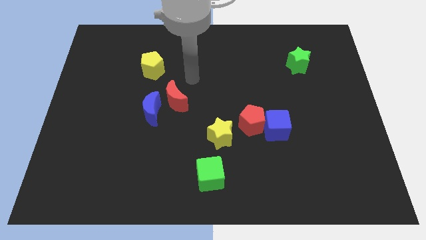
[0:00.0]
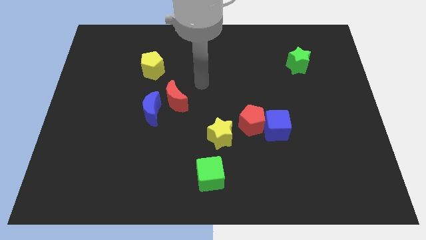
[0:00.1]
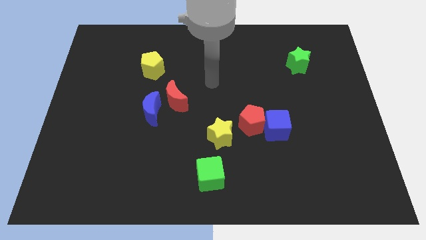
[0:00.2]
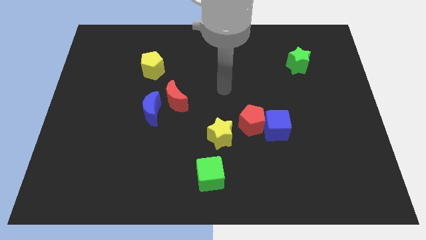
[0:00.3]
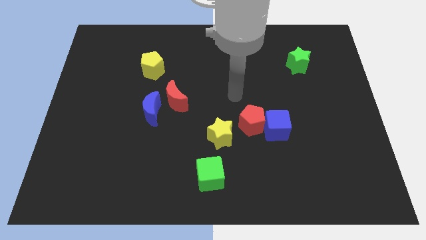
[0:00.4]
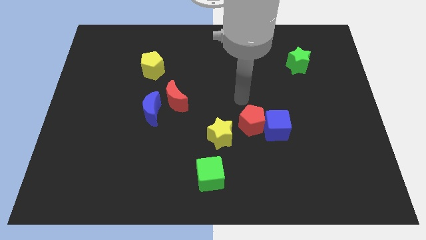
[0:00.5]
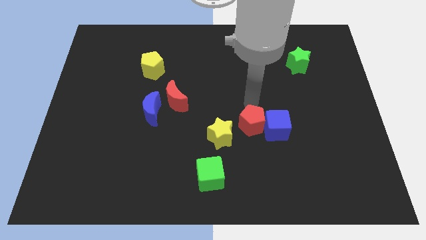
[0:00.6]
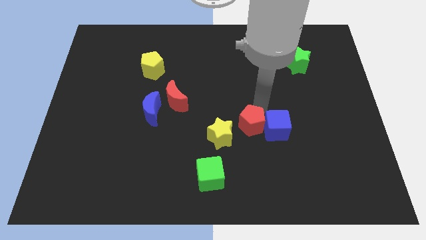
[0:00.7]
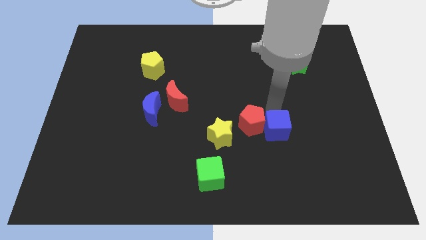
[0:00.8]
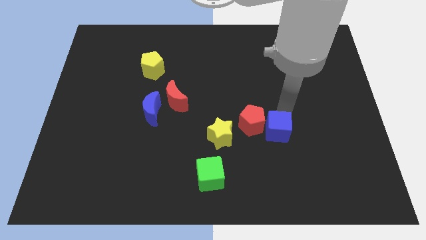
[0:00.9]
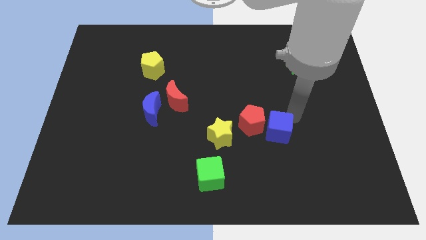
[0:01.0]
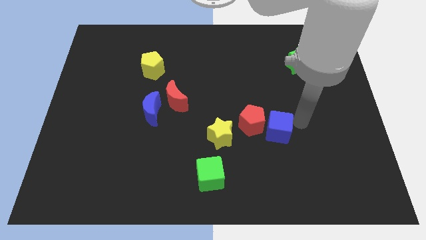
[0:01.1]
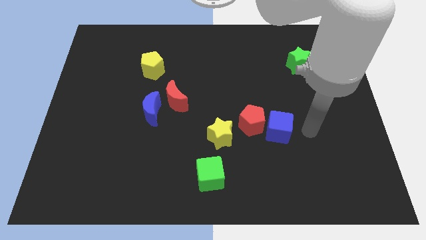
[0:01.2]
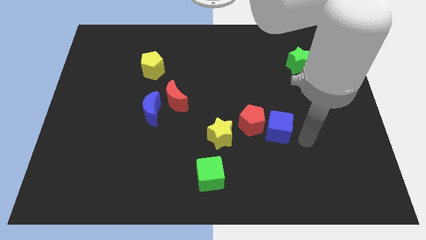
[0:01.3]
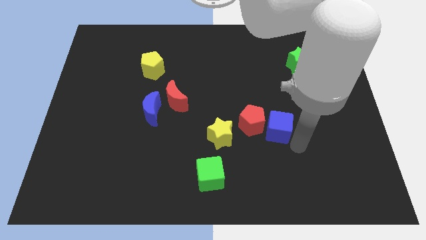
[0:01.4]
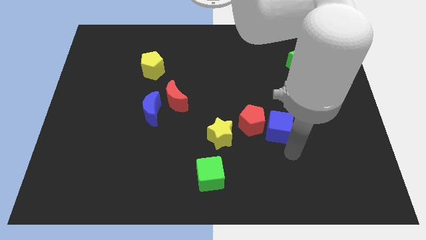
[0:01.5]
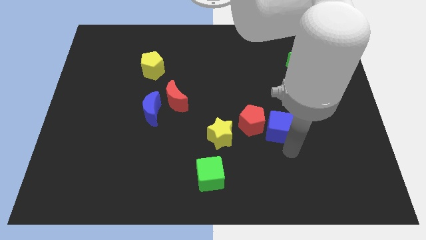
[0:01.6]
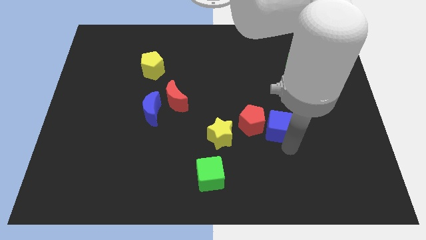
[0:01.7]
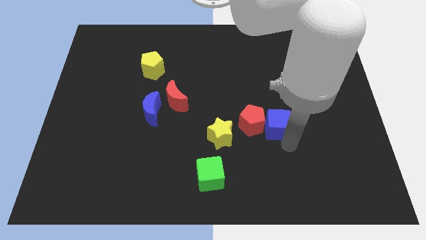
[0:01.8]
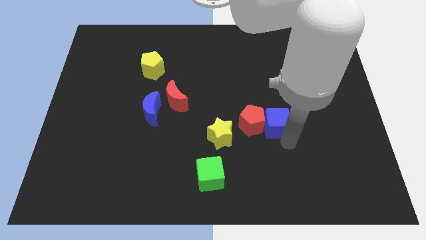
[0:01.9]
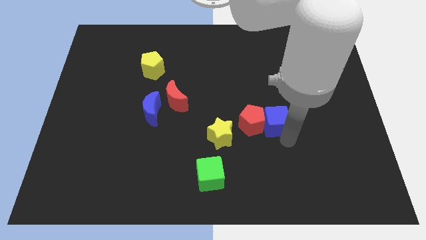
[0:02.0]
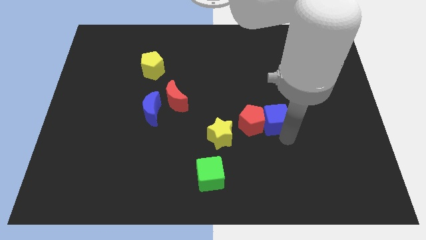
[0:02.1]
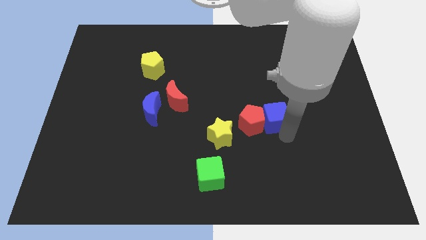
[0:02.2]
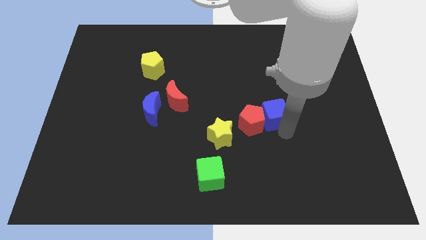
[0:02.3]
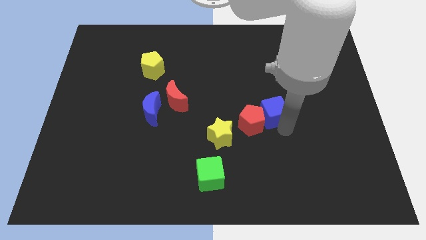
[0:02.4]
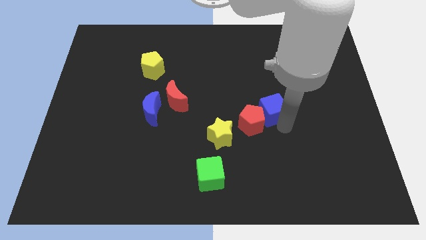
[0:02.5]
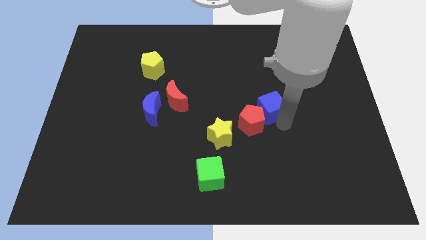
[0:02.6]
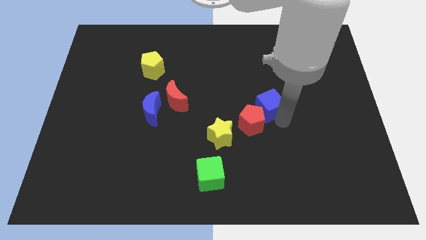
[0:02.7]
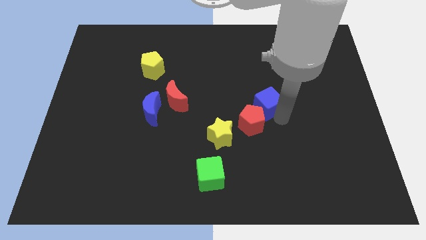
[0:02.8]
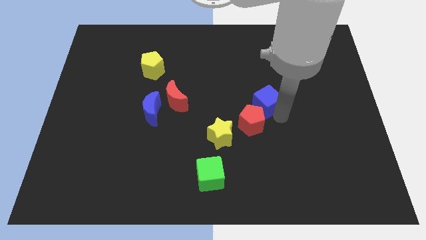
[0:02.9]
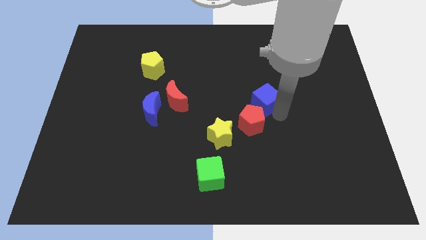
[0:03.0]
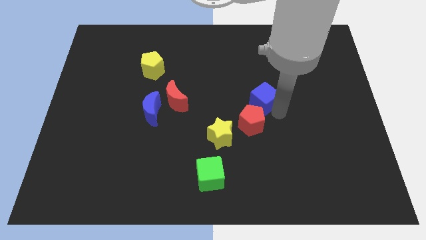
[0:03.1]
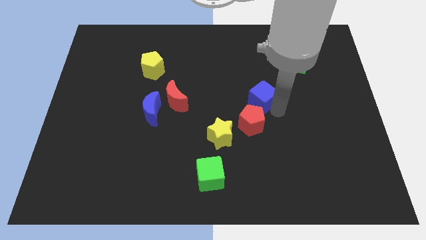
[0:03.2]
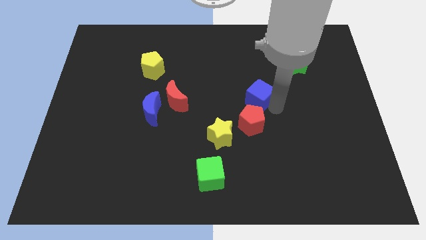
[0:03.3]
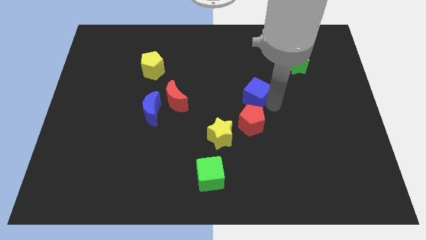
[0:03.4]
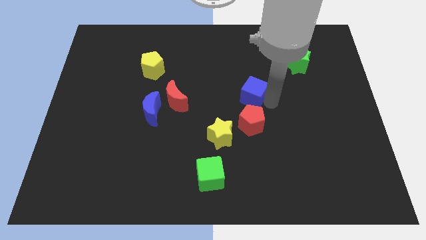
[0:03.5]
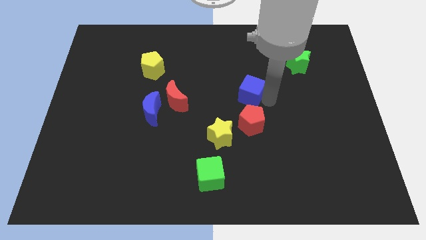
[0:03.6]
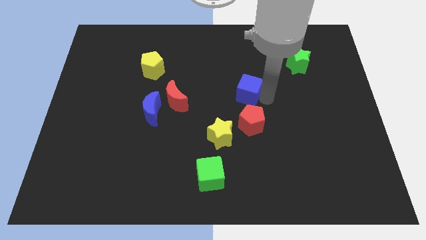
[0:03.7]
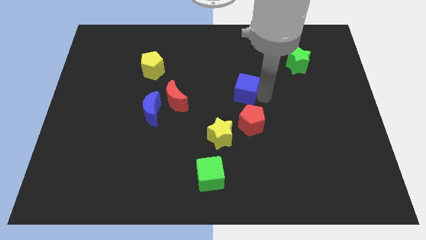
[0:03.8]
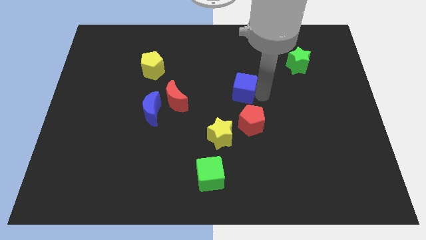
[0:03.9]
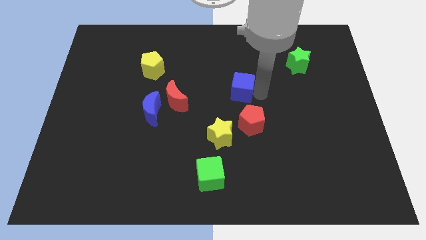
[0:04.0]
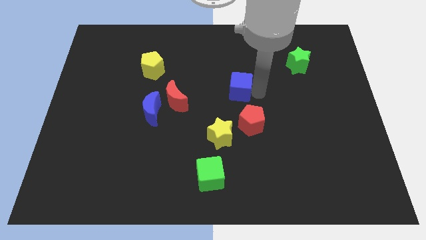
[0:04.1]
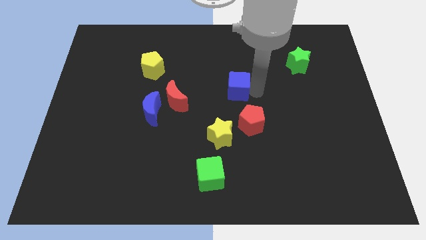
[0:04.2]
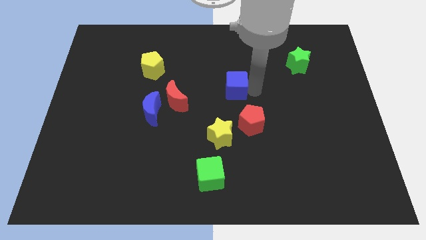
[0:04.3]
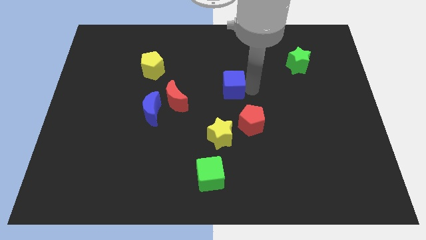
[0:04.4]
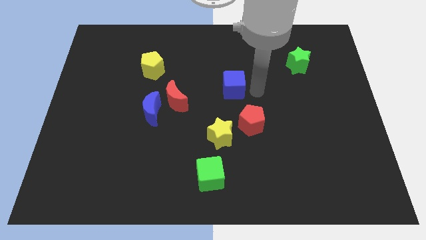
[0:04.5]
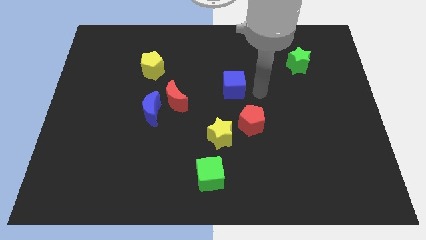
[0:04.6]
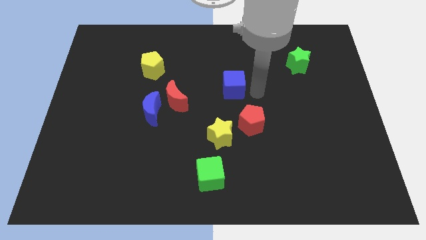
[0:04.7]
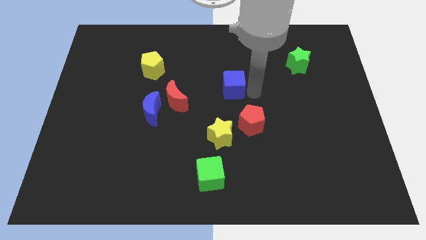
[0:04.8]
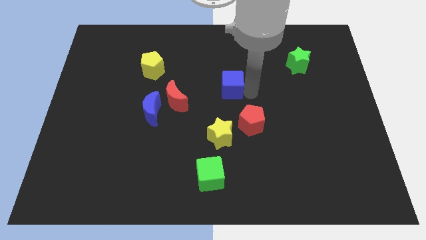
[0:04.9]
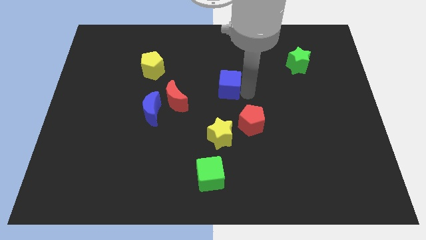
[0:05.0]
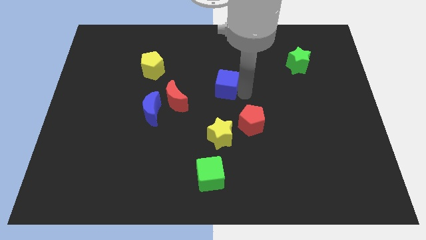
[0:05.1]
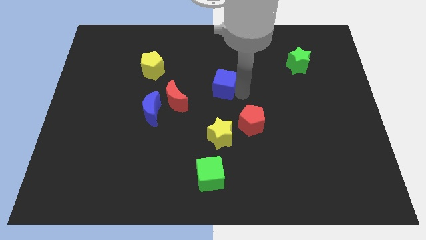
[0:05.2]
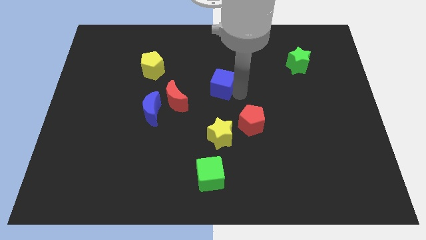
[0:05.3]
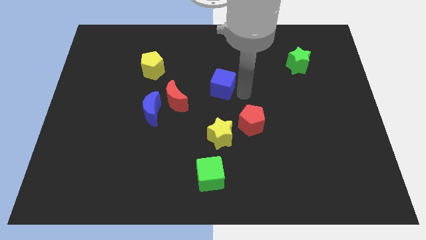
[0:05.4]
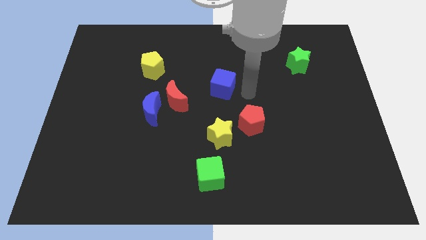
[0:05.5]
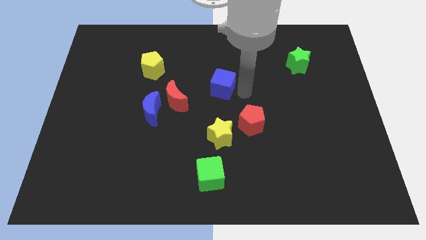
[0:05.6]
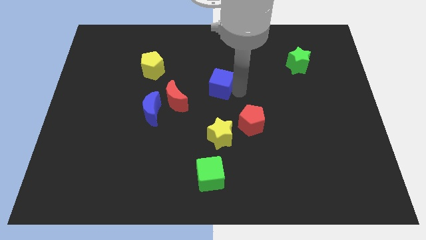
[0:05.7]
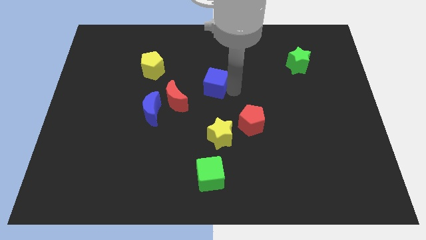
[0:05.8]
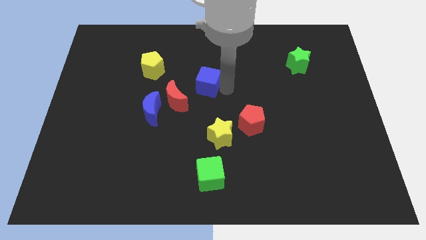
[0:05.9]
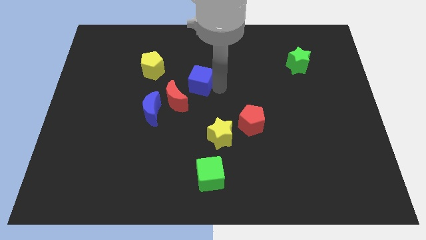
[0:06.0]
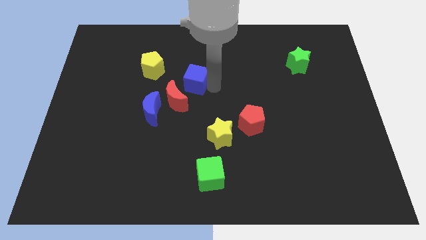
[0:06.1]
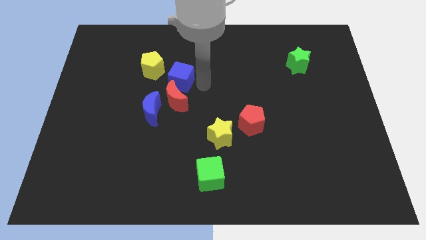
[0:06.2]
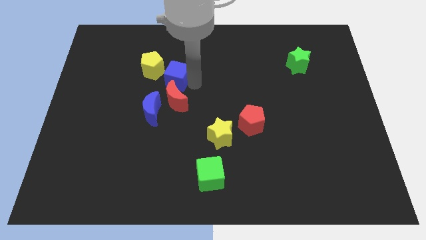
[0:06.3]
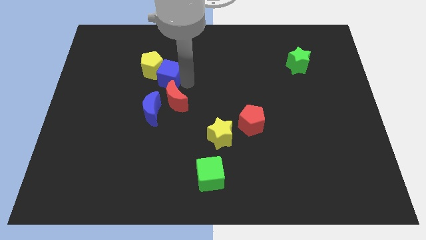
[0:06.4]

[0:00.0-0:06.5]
put the blue cube towards the yellow pentagon

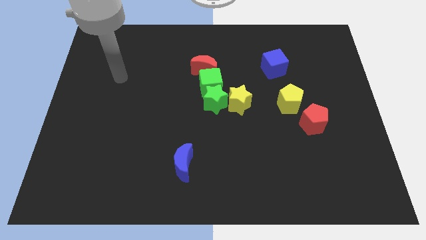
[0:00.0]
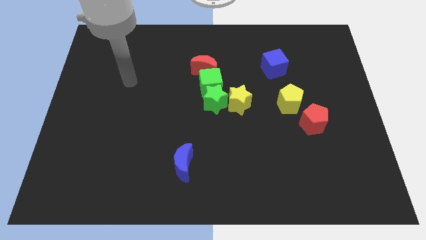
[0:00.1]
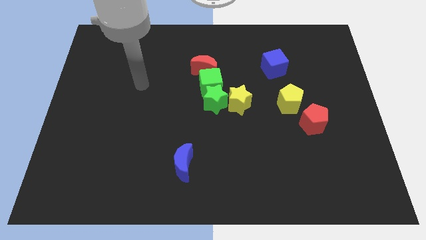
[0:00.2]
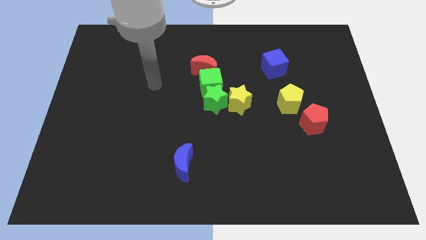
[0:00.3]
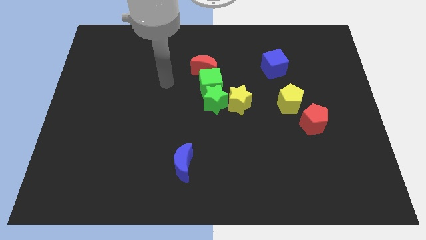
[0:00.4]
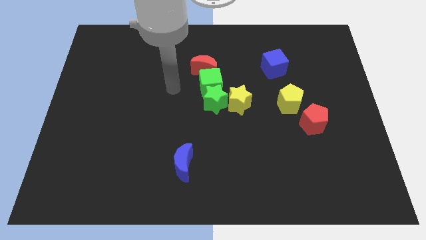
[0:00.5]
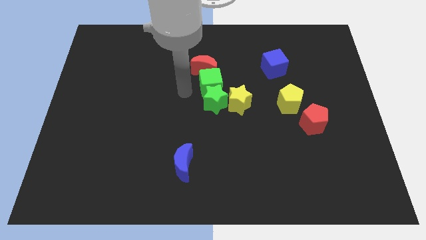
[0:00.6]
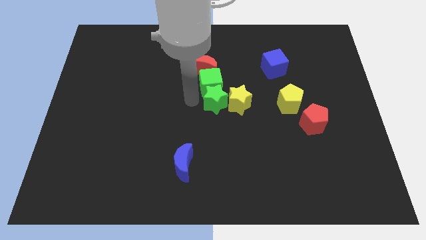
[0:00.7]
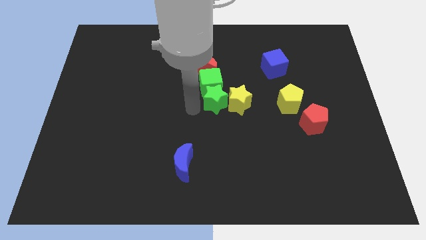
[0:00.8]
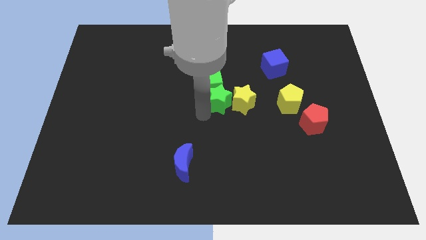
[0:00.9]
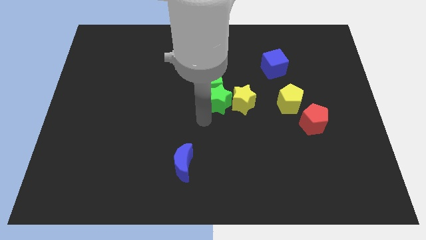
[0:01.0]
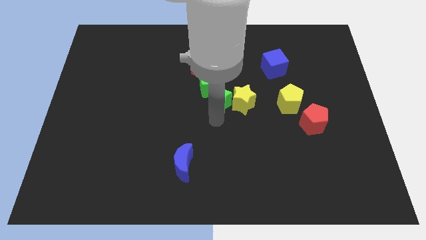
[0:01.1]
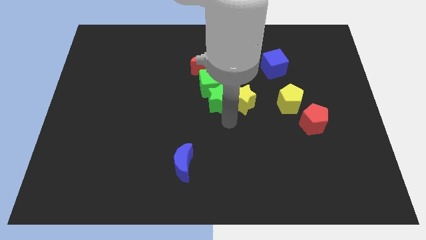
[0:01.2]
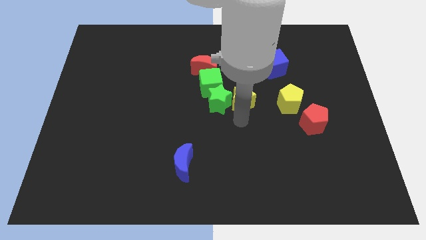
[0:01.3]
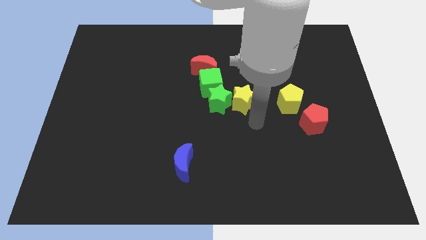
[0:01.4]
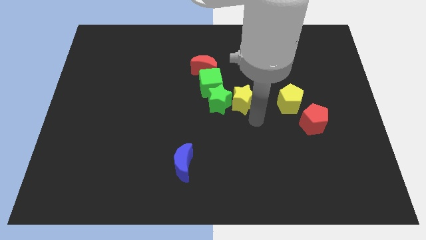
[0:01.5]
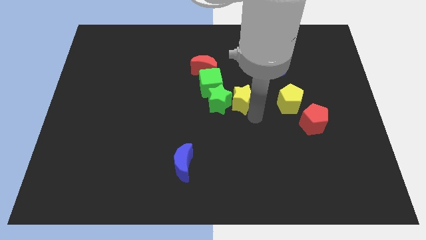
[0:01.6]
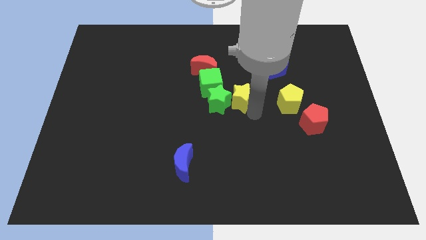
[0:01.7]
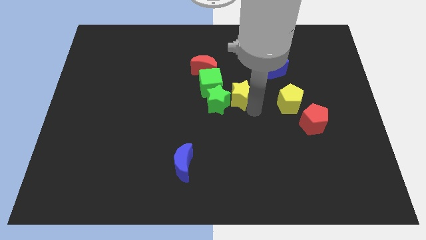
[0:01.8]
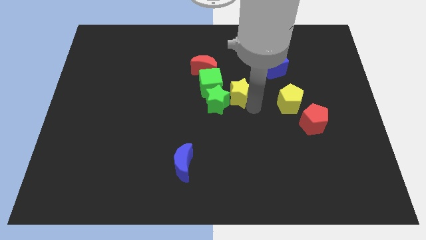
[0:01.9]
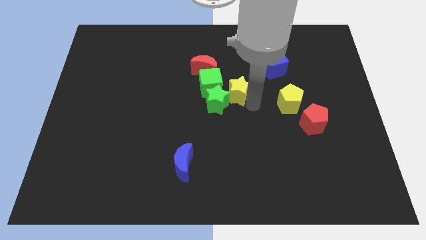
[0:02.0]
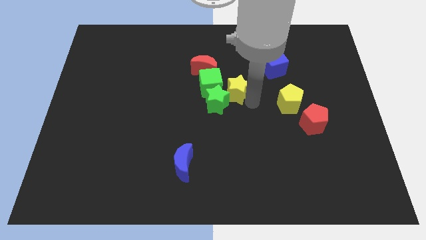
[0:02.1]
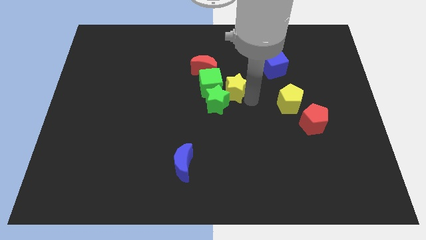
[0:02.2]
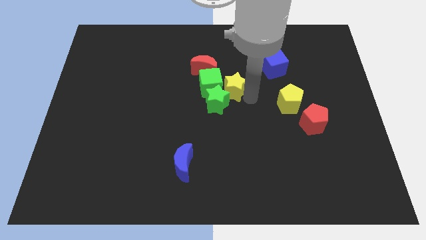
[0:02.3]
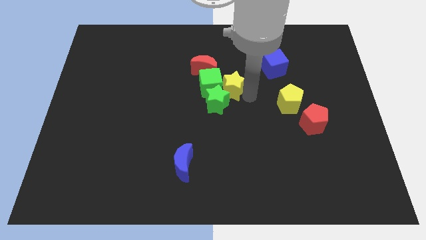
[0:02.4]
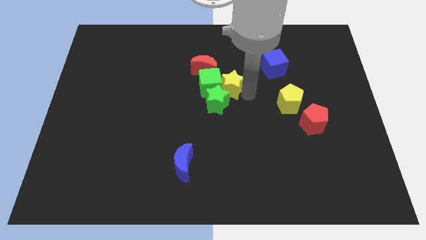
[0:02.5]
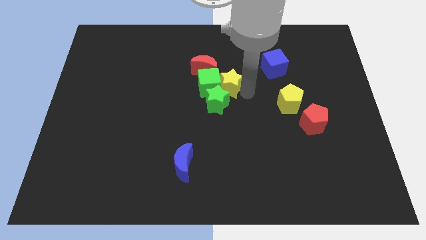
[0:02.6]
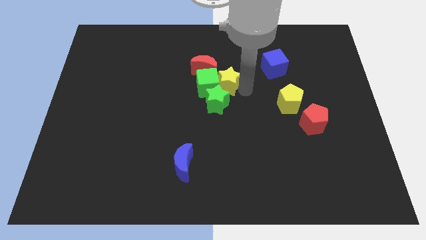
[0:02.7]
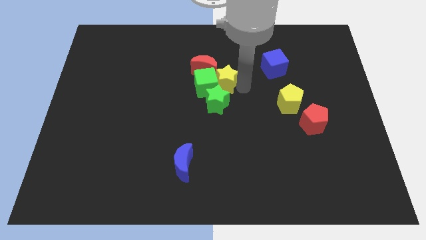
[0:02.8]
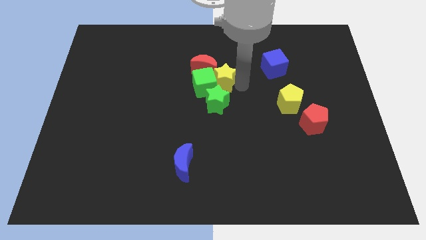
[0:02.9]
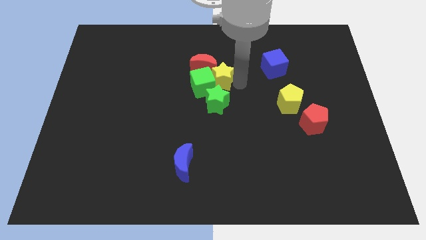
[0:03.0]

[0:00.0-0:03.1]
slide the yellow star towards the red moon
